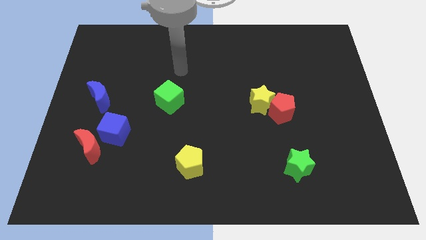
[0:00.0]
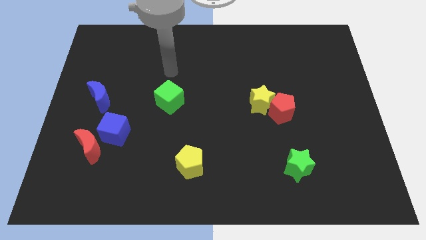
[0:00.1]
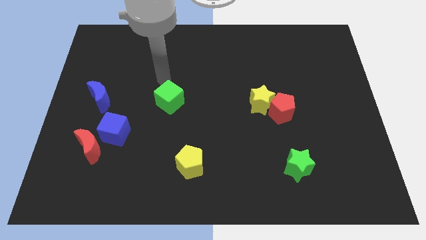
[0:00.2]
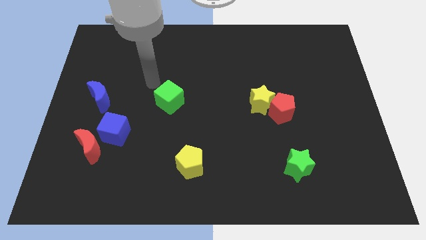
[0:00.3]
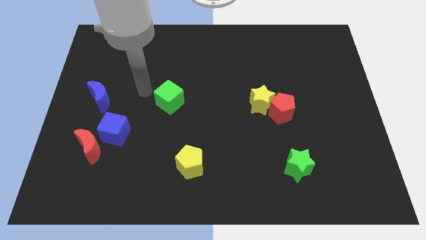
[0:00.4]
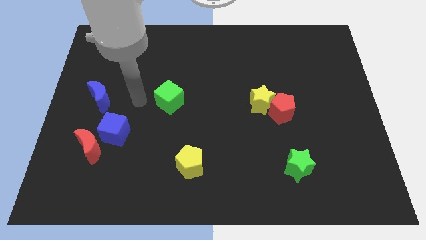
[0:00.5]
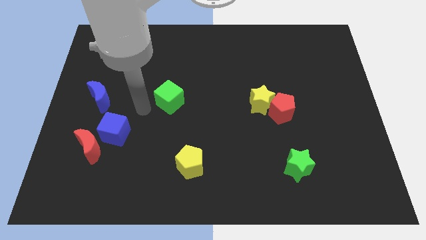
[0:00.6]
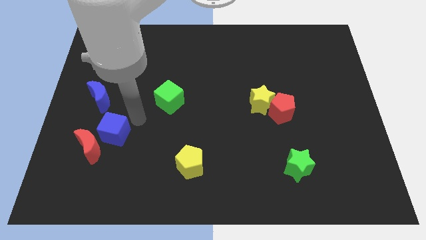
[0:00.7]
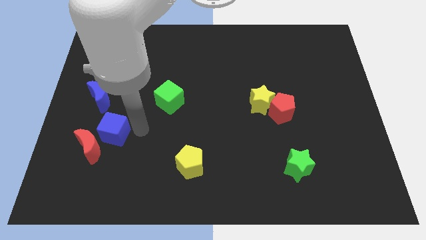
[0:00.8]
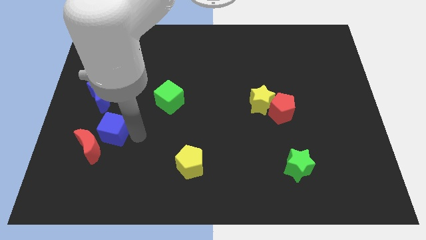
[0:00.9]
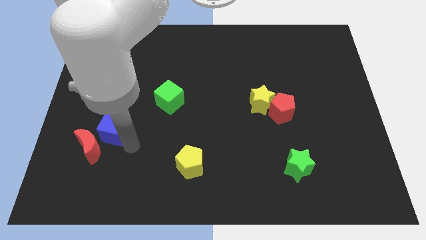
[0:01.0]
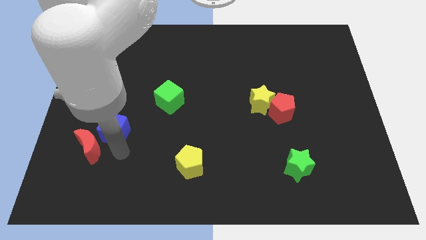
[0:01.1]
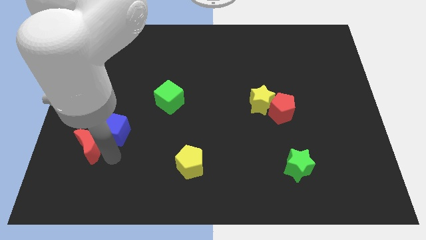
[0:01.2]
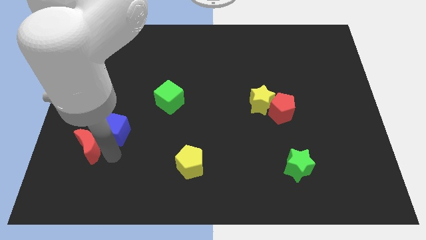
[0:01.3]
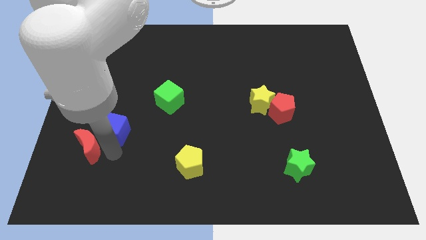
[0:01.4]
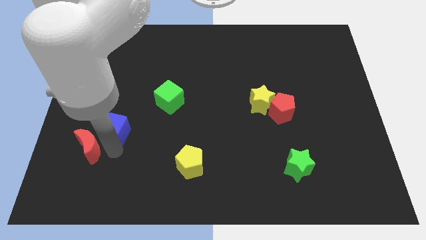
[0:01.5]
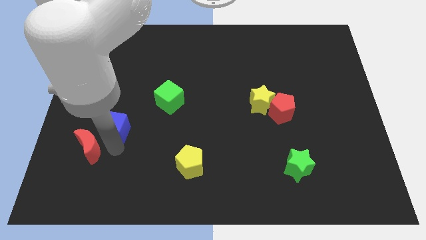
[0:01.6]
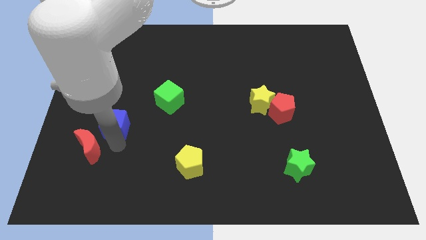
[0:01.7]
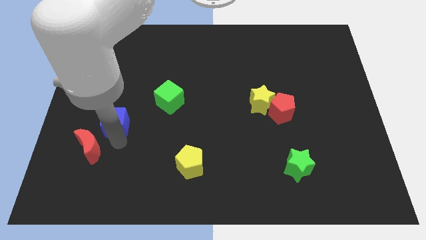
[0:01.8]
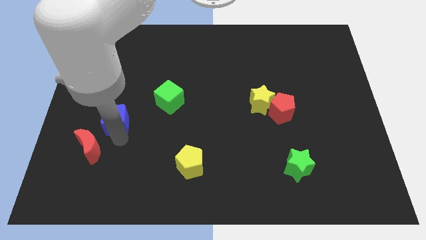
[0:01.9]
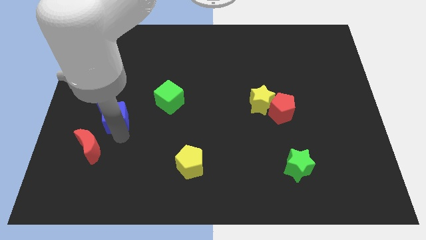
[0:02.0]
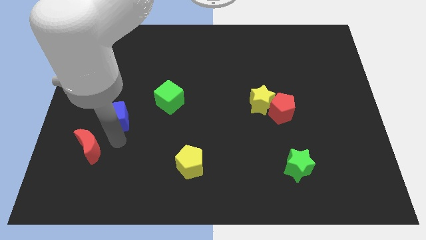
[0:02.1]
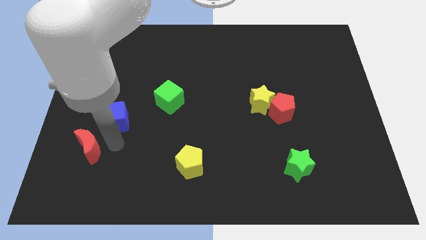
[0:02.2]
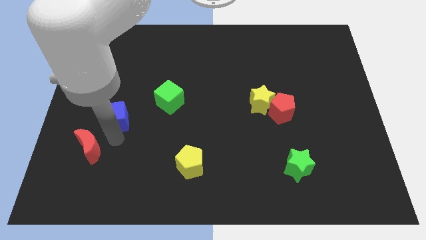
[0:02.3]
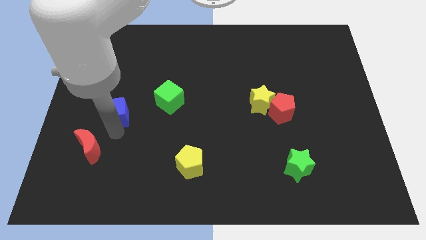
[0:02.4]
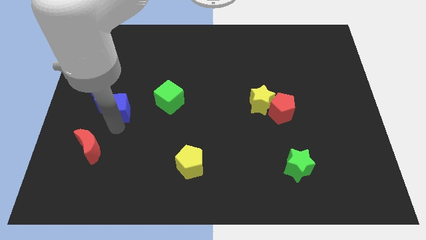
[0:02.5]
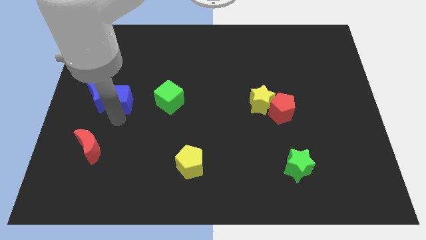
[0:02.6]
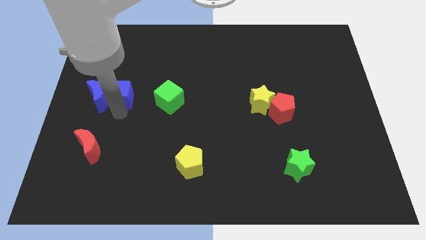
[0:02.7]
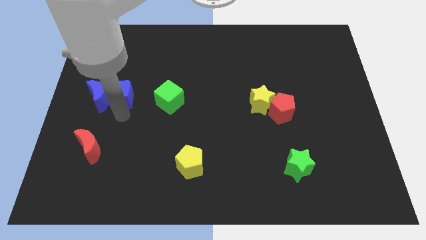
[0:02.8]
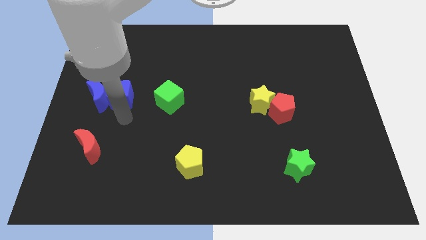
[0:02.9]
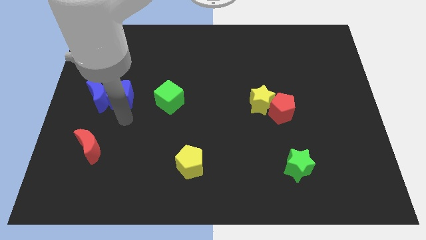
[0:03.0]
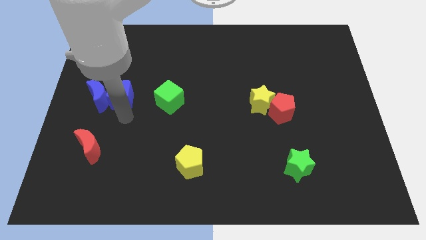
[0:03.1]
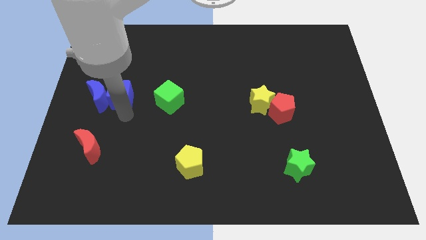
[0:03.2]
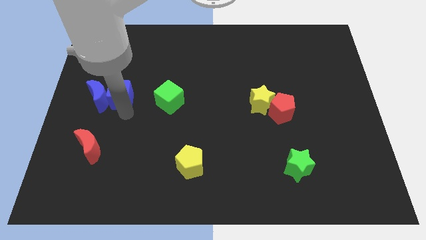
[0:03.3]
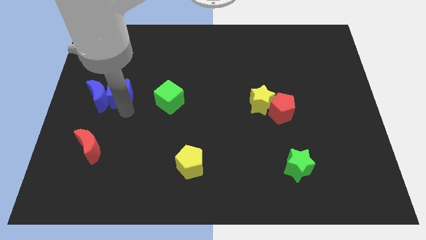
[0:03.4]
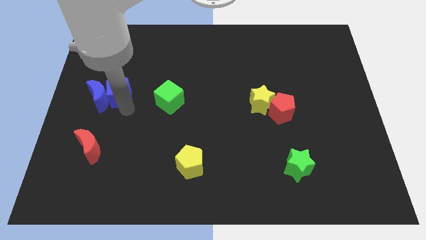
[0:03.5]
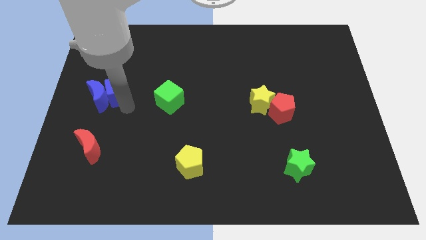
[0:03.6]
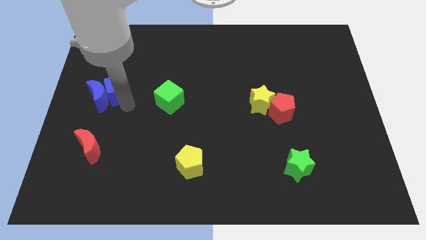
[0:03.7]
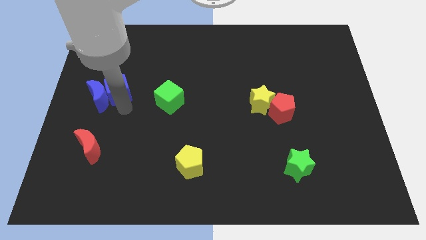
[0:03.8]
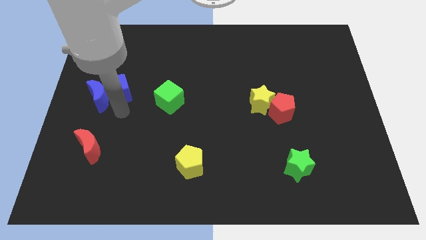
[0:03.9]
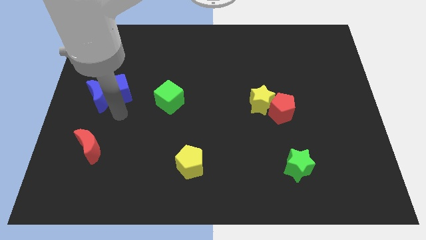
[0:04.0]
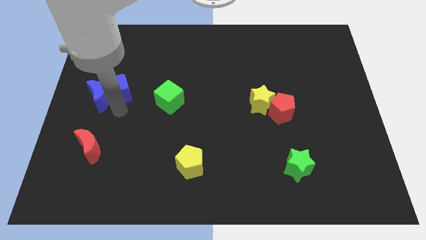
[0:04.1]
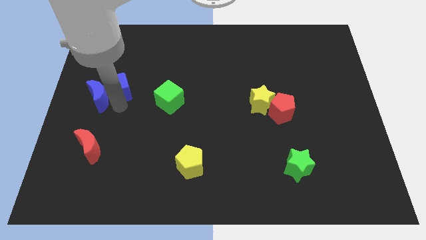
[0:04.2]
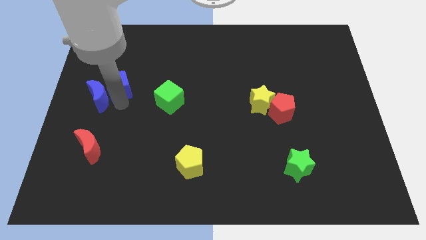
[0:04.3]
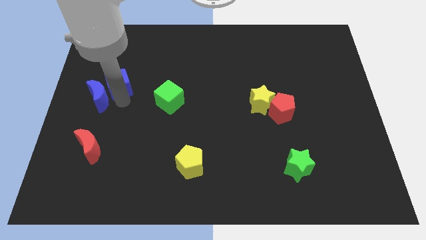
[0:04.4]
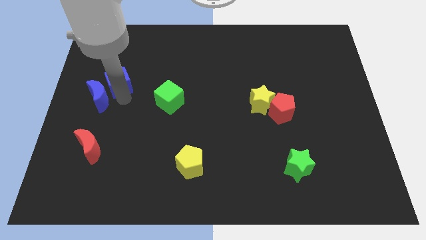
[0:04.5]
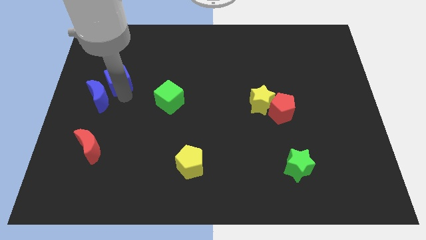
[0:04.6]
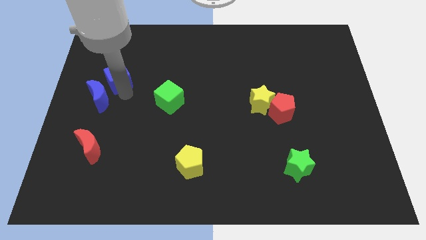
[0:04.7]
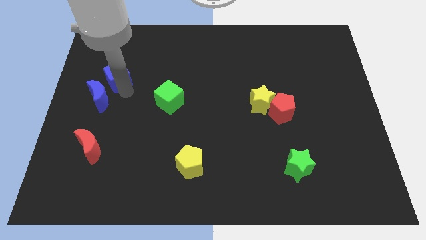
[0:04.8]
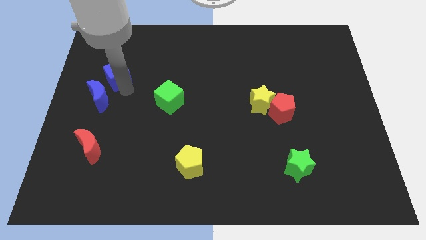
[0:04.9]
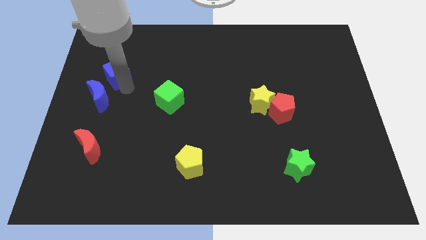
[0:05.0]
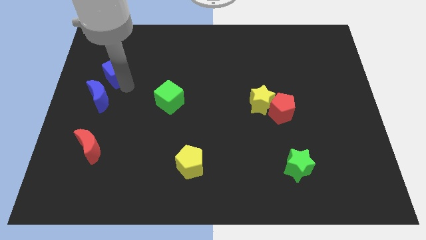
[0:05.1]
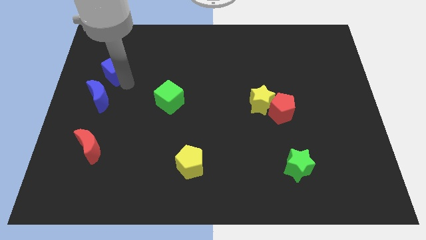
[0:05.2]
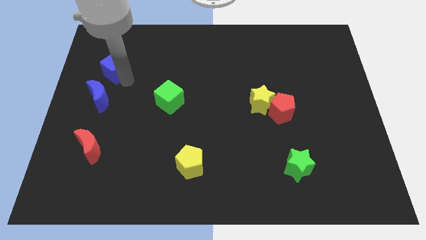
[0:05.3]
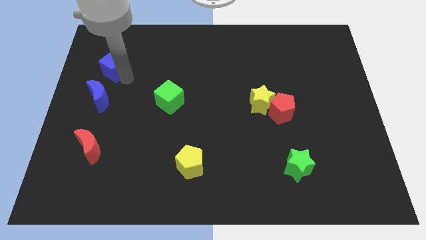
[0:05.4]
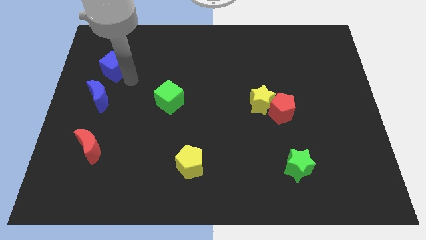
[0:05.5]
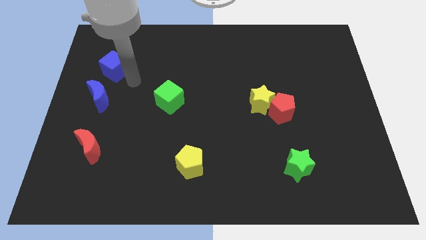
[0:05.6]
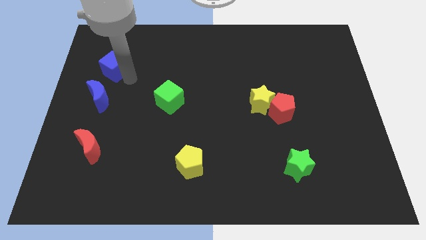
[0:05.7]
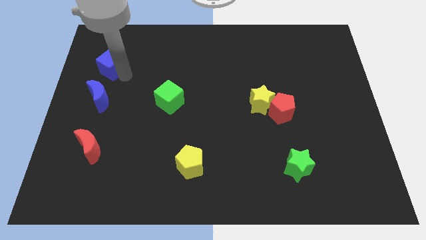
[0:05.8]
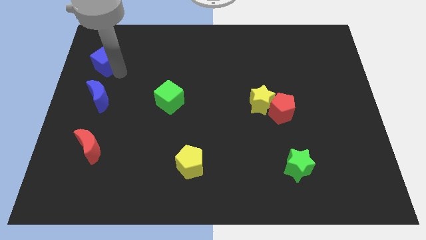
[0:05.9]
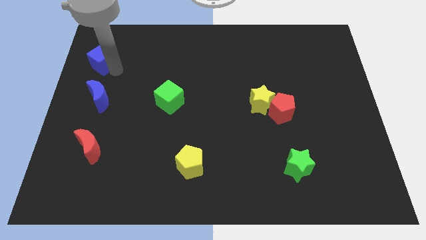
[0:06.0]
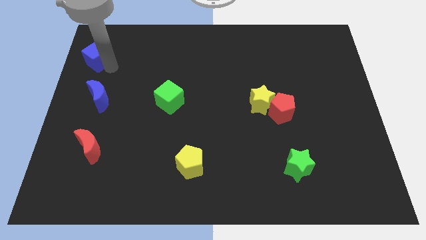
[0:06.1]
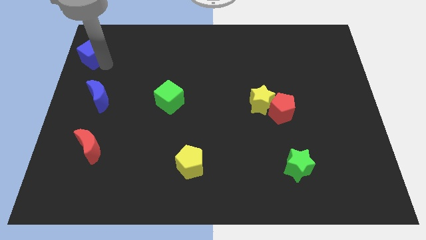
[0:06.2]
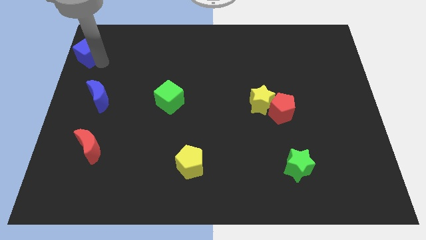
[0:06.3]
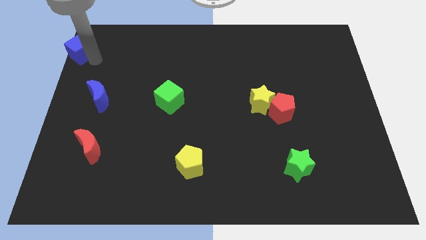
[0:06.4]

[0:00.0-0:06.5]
move the blue cube to the top left corner

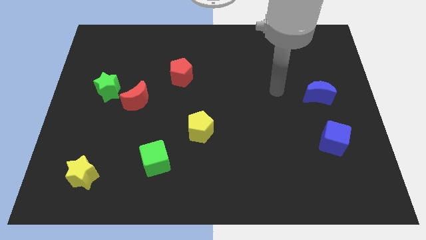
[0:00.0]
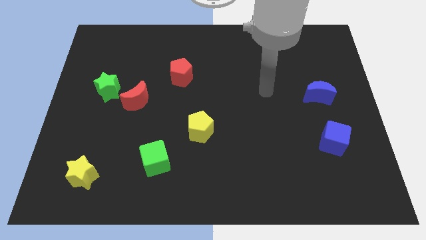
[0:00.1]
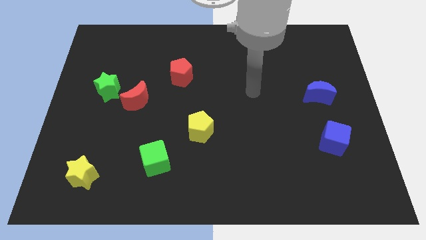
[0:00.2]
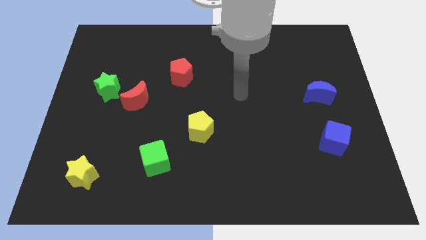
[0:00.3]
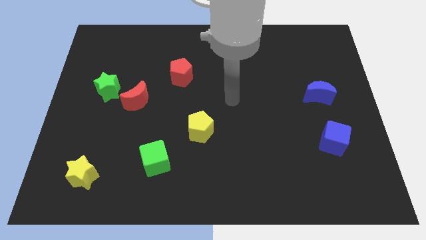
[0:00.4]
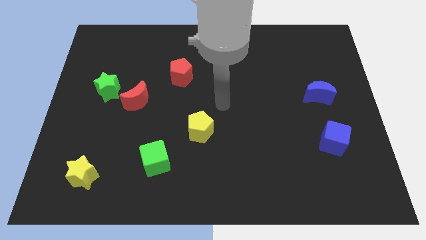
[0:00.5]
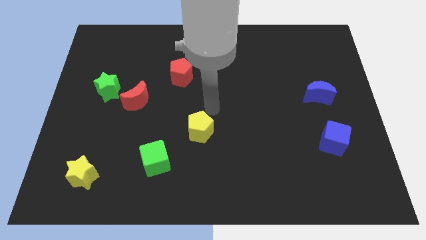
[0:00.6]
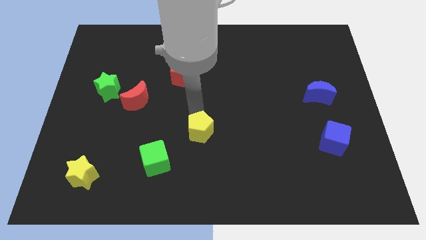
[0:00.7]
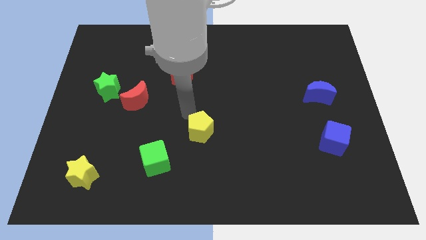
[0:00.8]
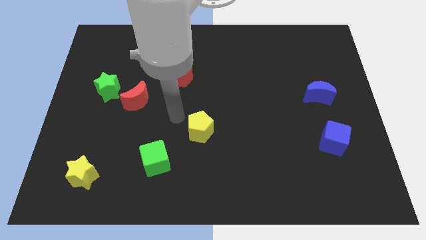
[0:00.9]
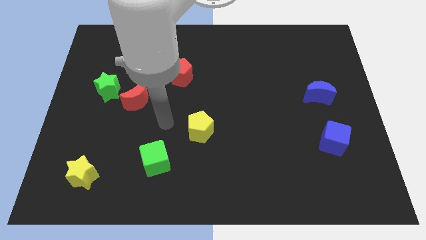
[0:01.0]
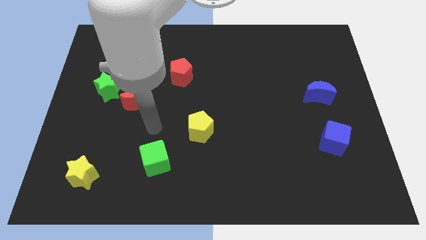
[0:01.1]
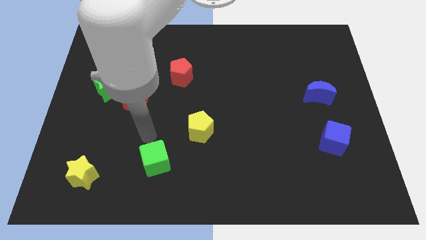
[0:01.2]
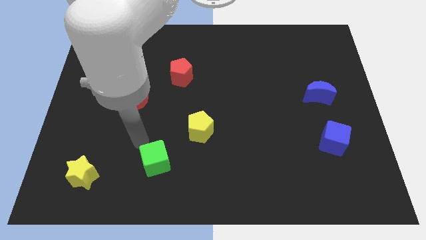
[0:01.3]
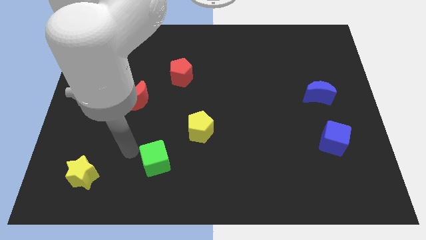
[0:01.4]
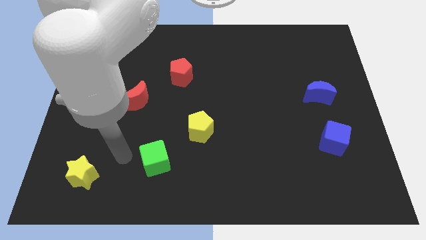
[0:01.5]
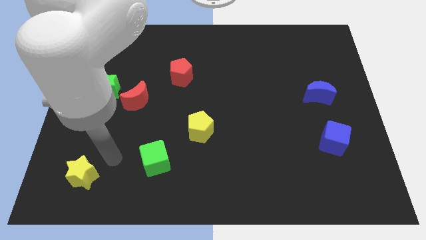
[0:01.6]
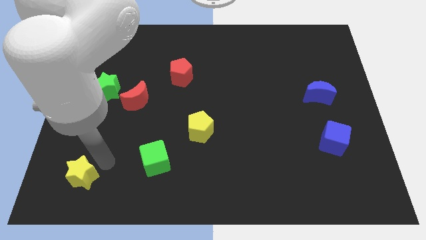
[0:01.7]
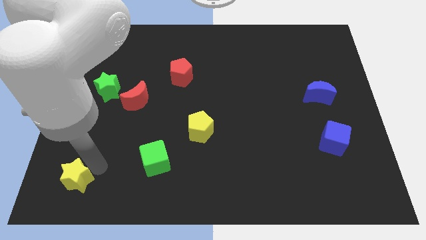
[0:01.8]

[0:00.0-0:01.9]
push the yellow star to the bottom left of the board
